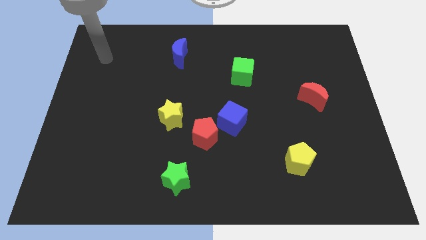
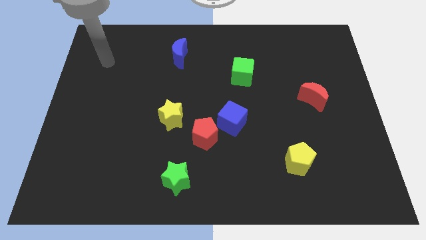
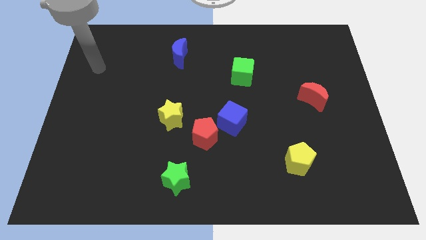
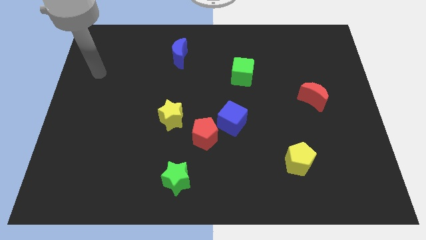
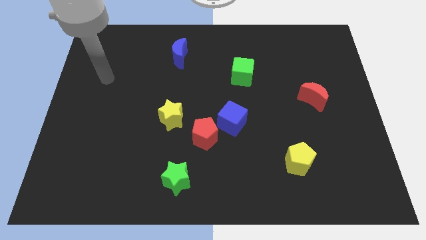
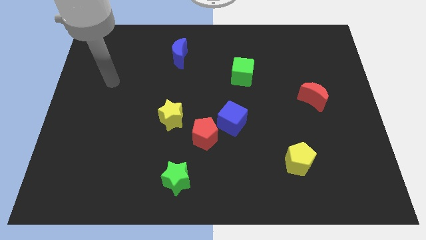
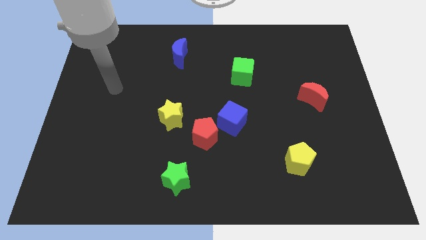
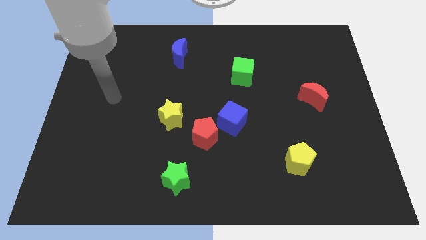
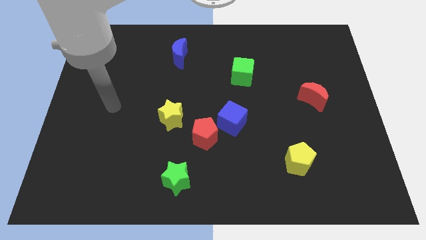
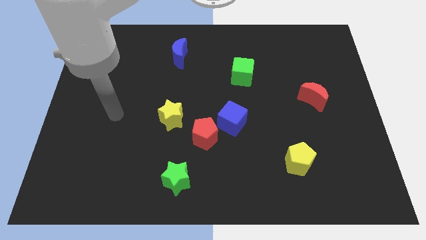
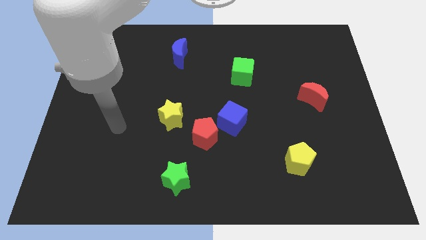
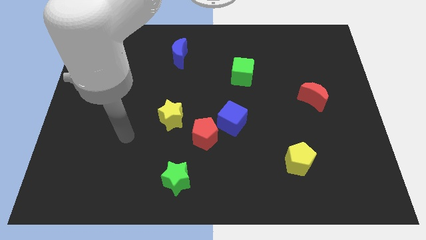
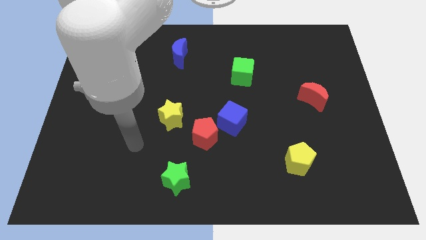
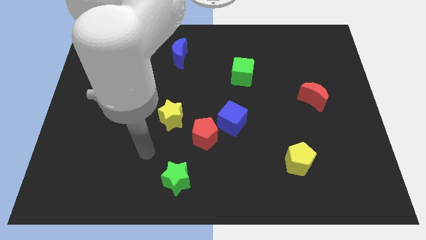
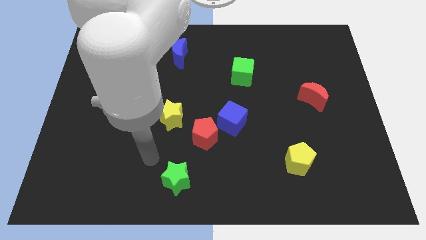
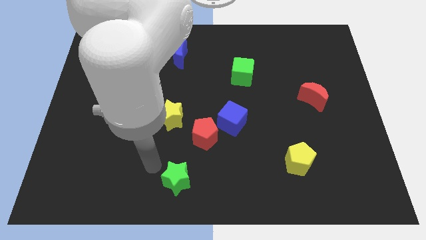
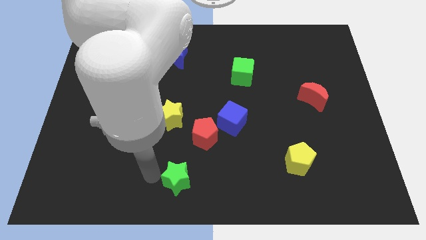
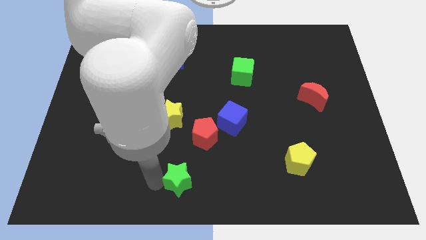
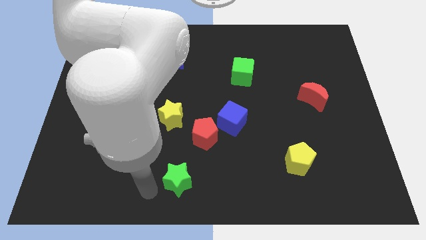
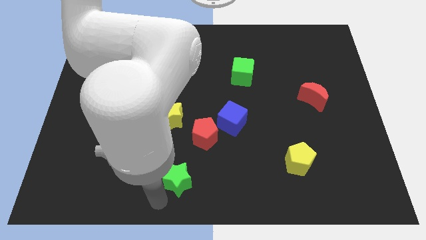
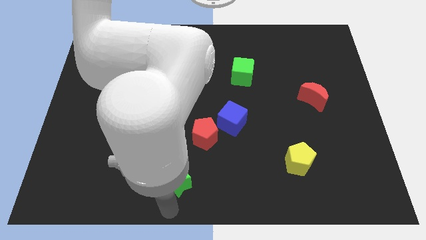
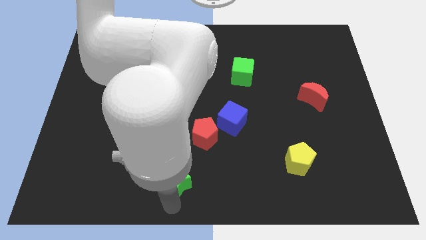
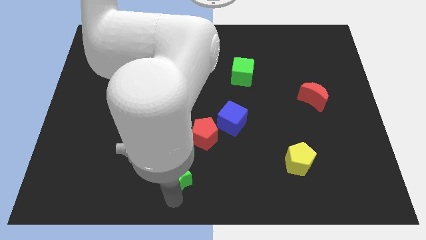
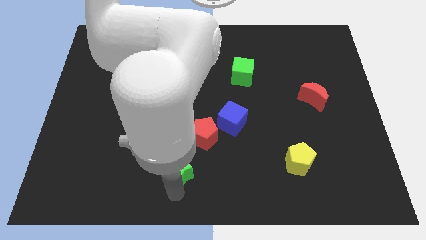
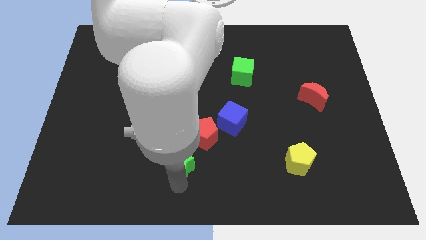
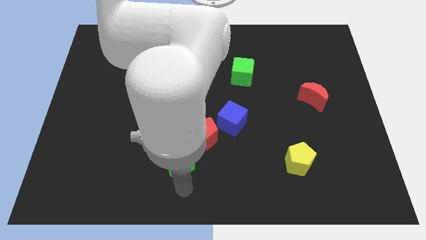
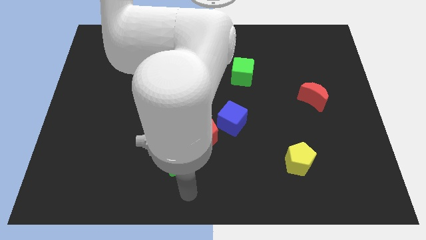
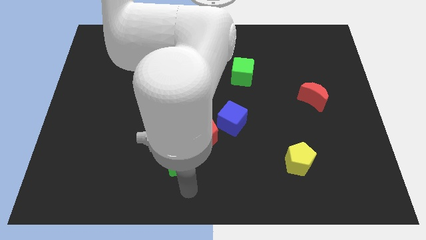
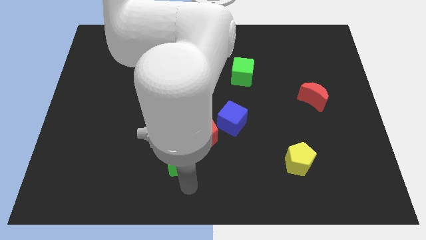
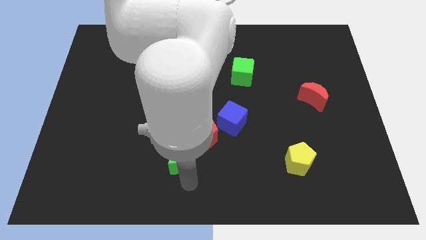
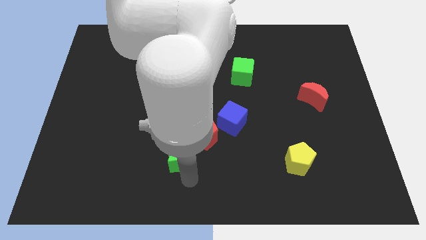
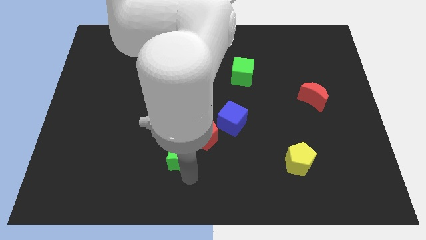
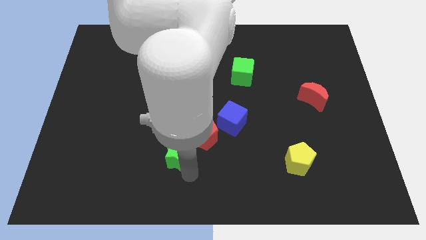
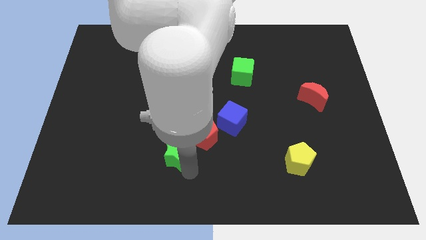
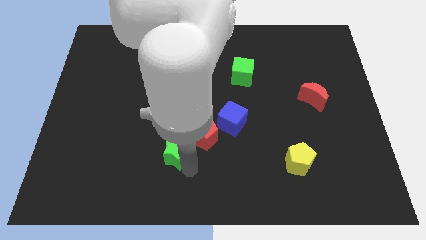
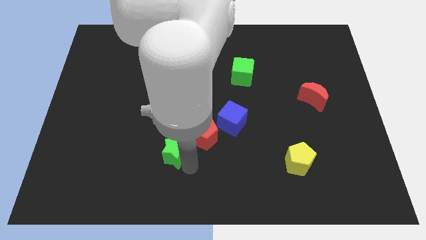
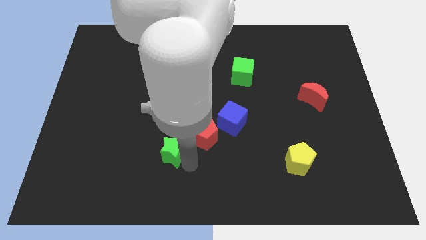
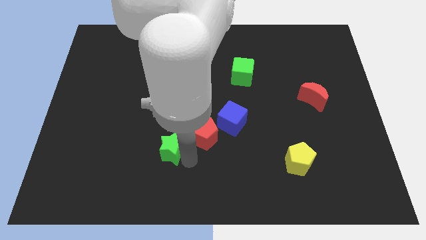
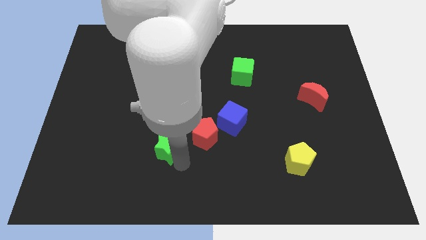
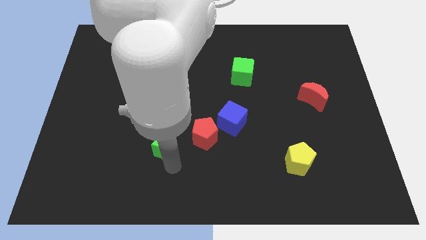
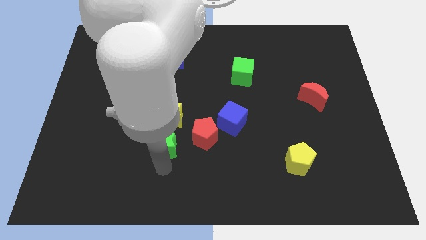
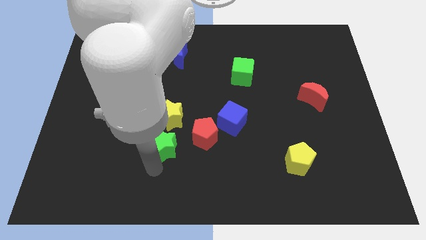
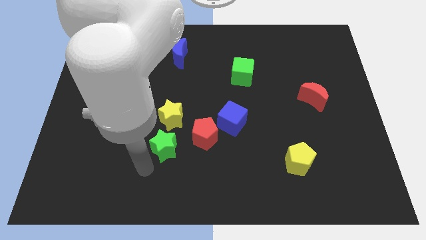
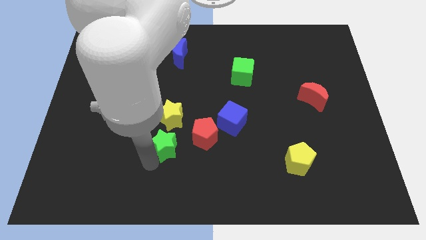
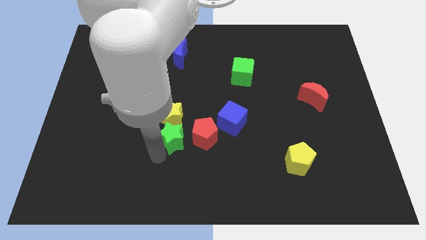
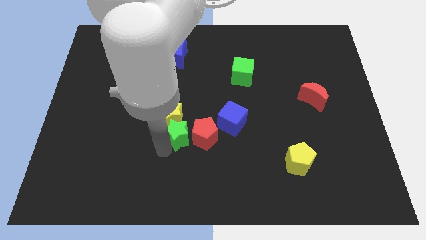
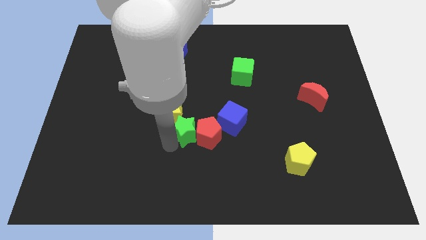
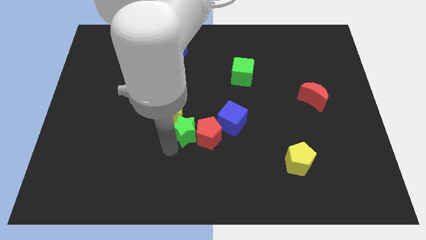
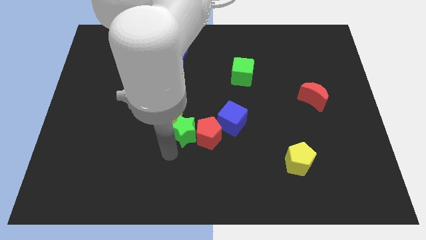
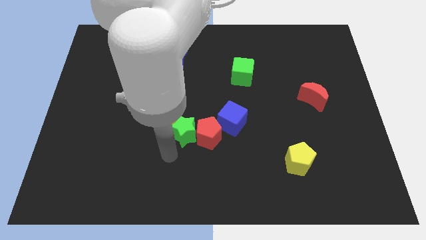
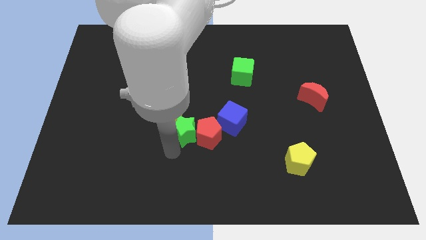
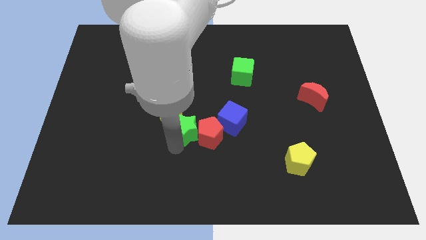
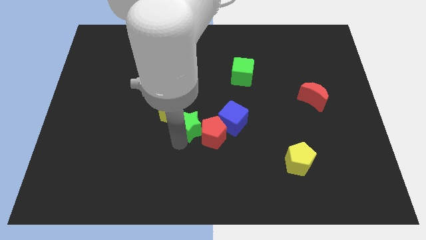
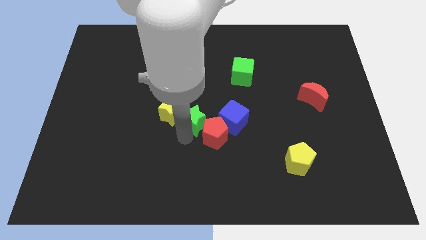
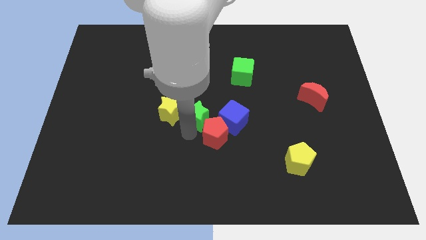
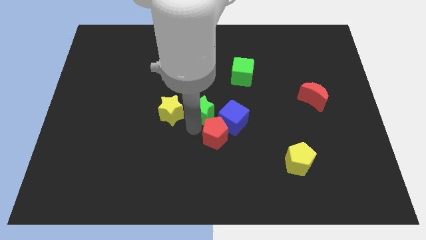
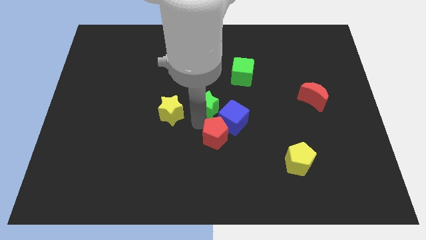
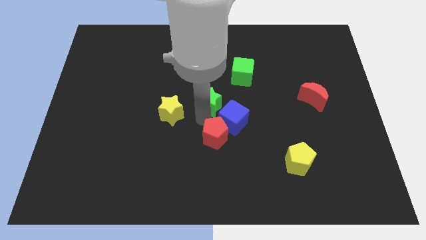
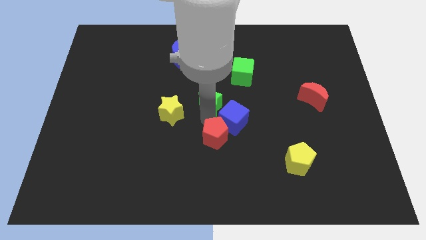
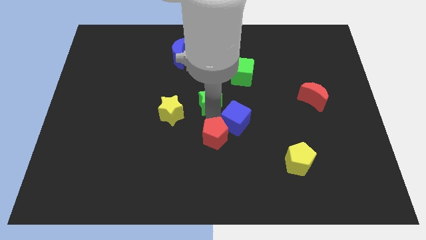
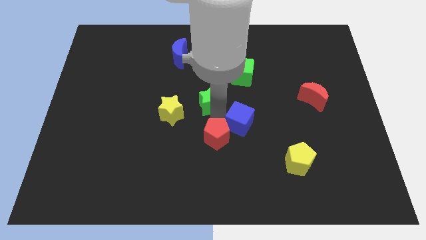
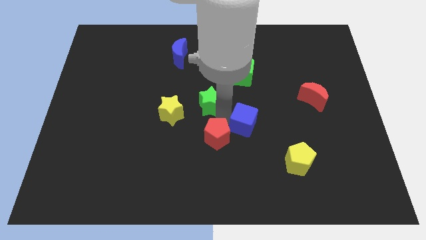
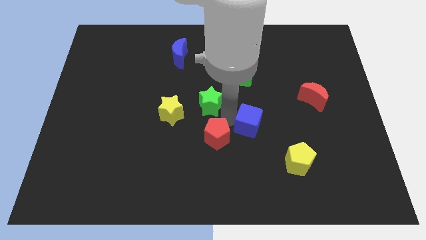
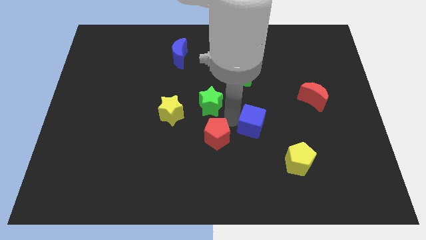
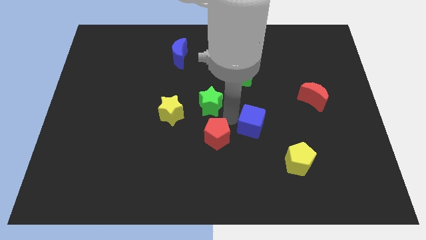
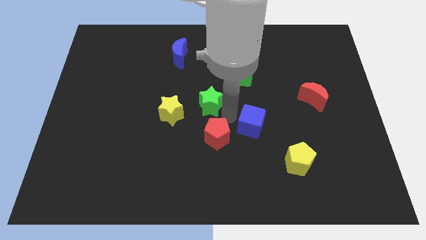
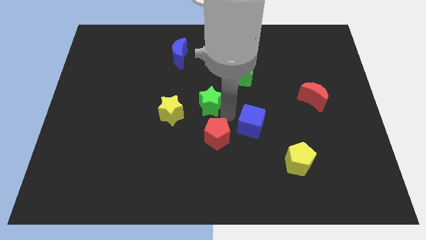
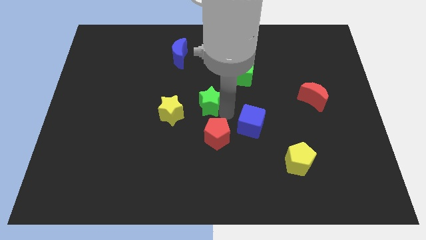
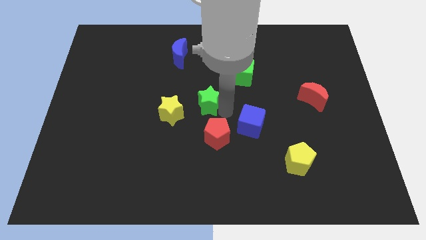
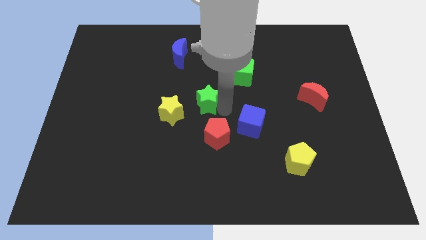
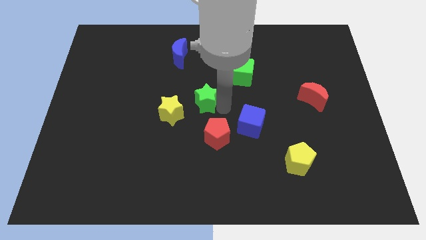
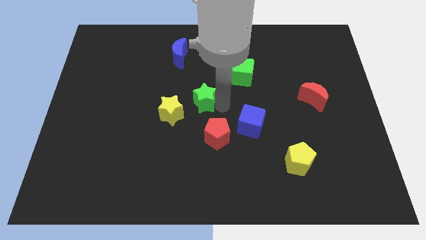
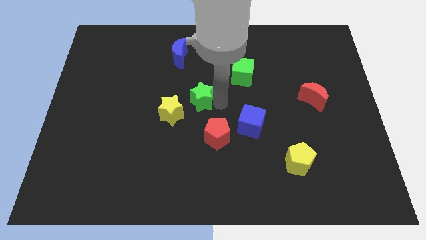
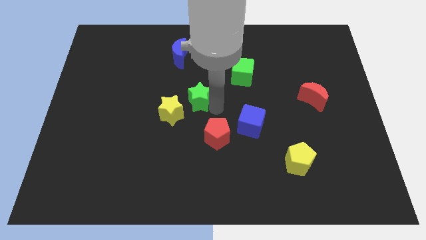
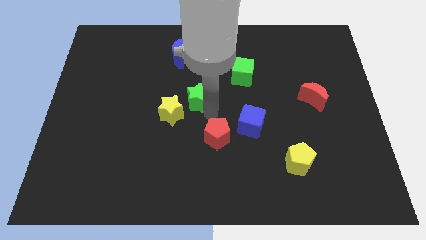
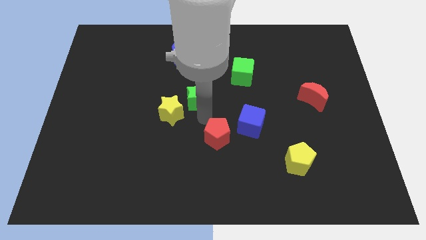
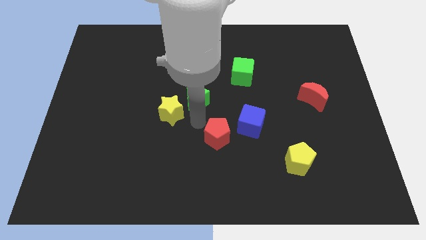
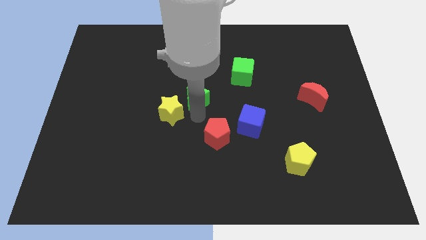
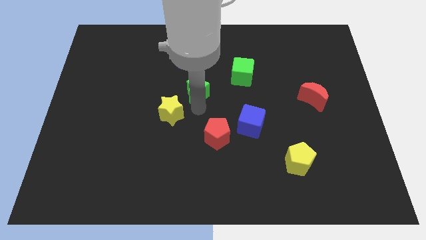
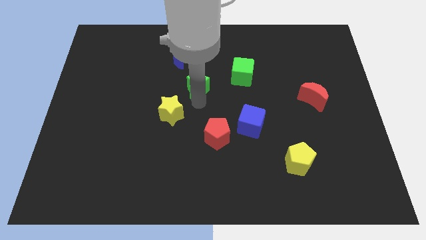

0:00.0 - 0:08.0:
put the green star left of the green cube

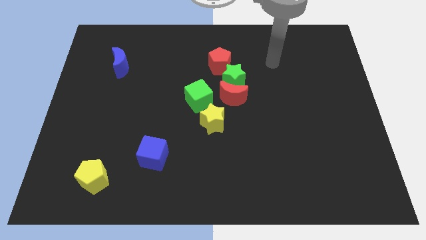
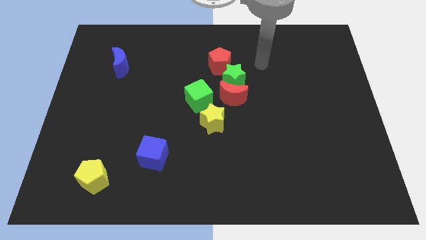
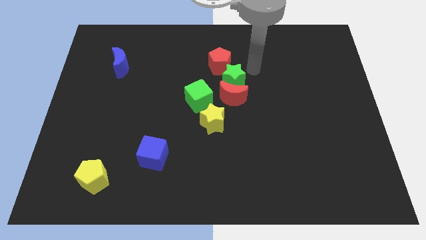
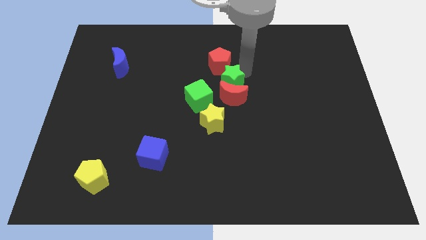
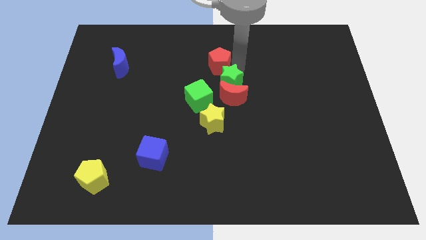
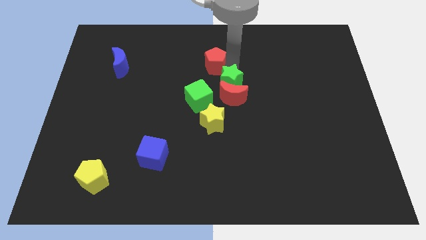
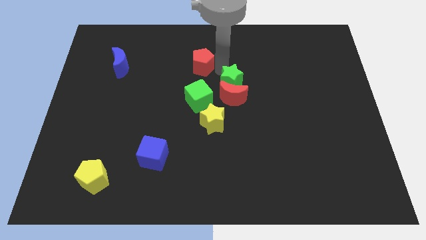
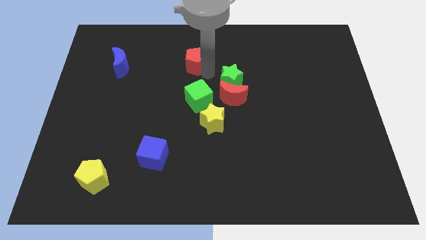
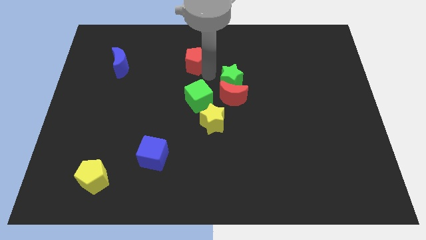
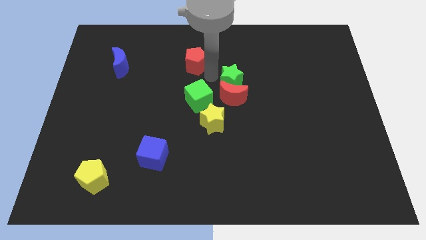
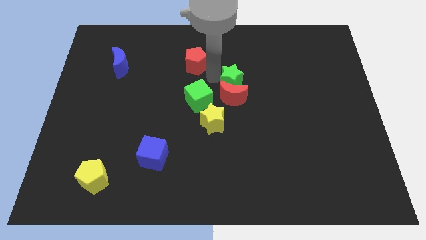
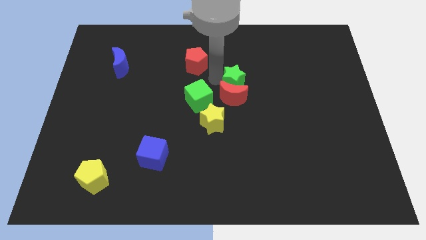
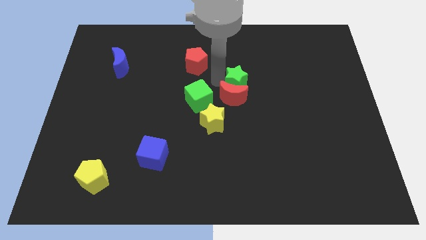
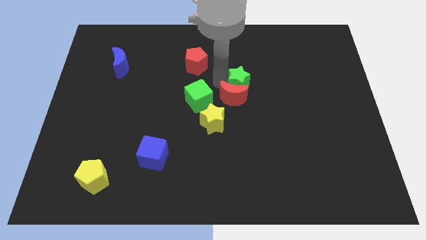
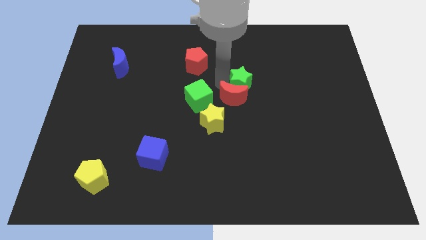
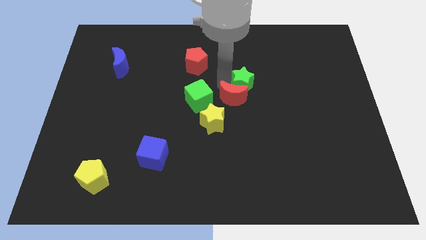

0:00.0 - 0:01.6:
push the green star right of the red moon
